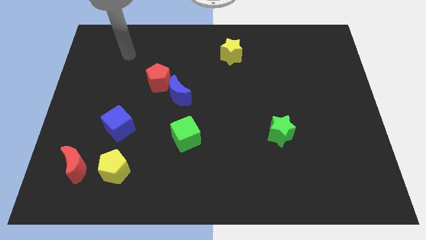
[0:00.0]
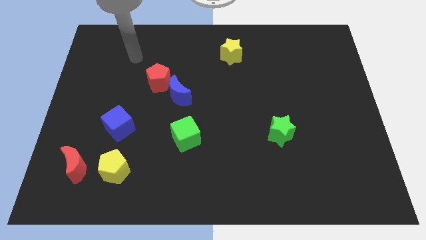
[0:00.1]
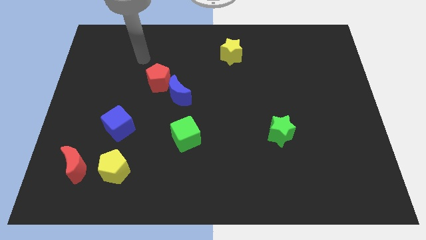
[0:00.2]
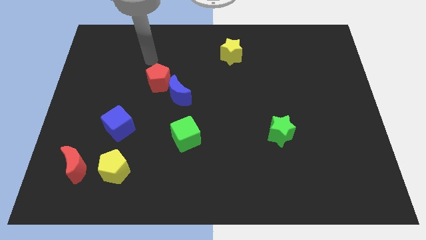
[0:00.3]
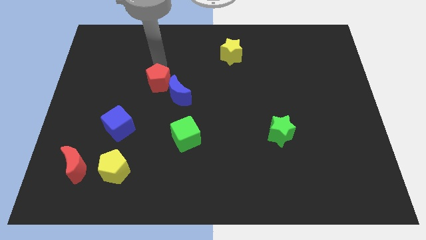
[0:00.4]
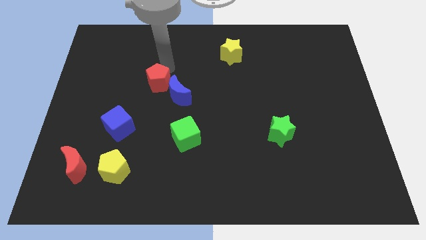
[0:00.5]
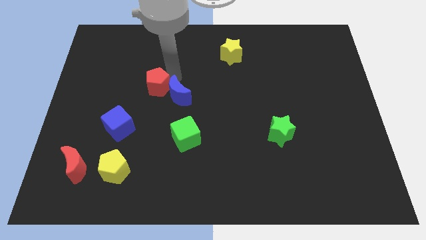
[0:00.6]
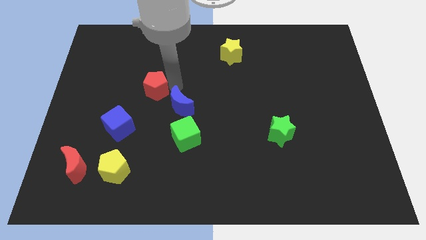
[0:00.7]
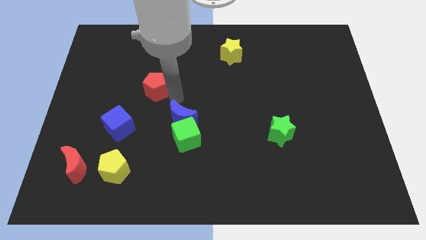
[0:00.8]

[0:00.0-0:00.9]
pull the red pentagon apart from the blue moon

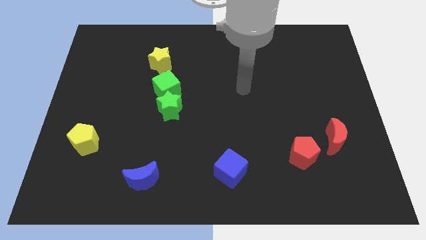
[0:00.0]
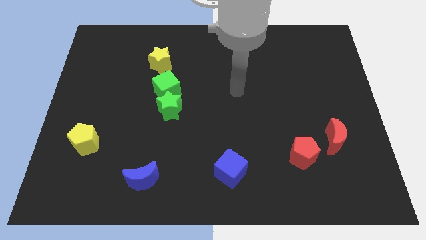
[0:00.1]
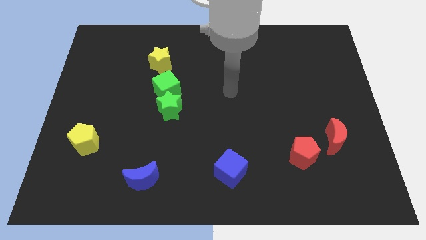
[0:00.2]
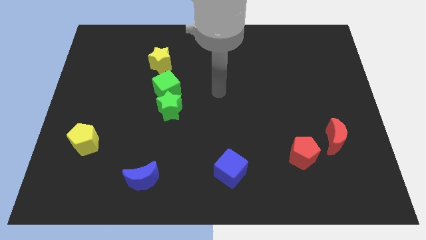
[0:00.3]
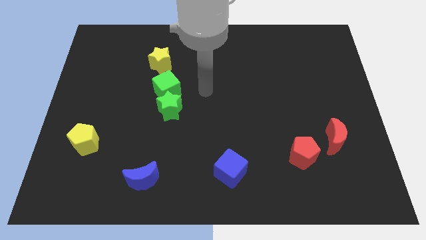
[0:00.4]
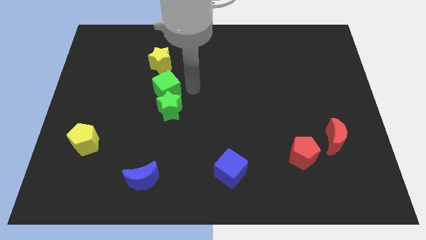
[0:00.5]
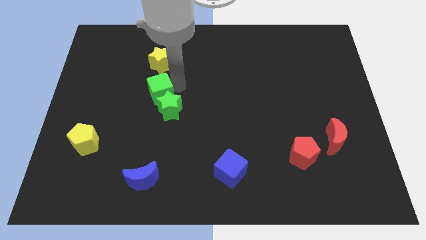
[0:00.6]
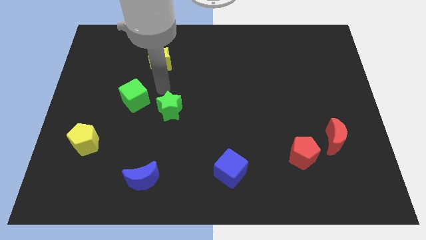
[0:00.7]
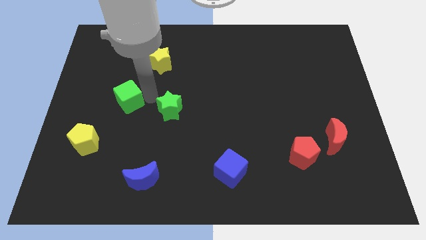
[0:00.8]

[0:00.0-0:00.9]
separate the green star from the green cube

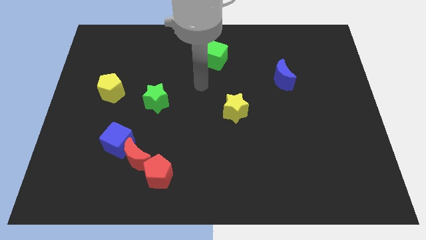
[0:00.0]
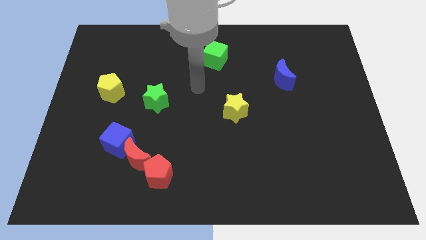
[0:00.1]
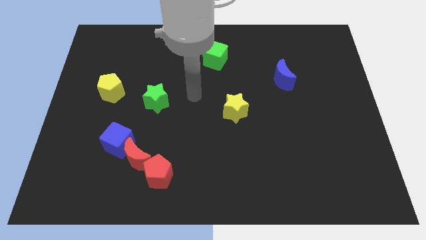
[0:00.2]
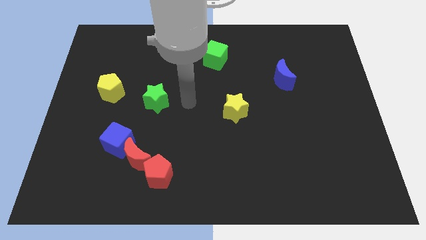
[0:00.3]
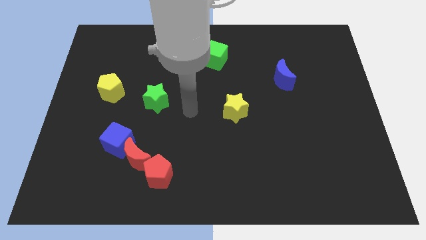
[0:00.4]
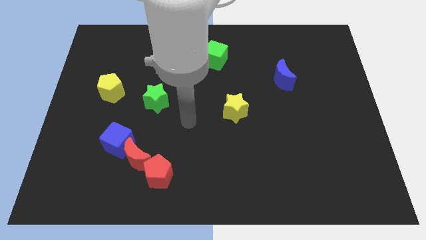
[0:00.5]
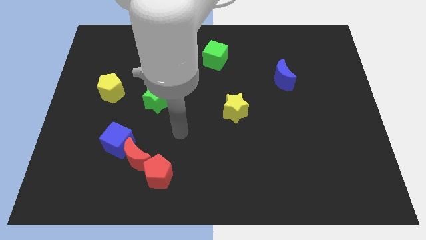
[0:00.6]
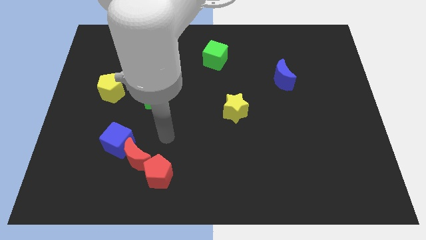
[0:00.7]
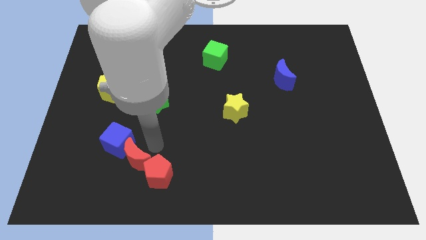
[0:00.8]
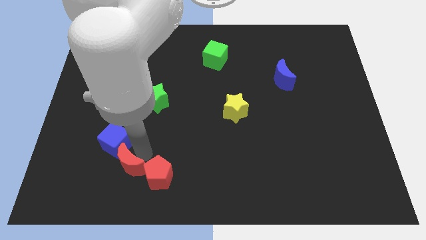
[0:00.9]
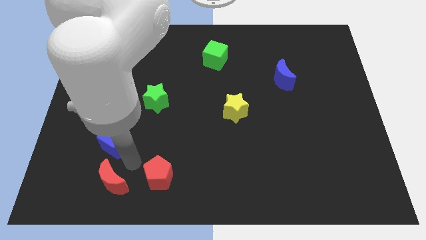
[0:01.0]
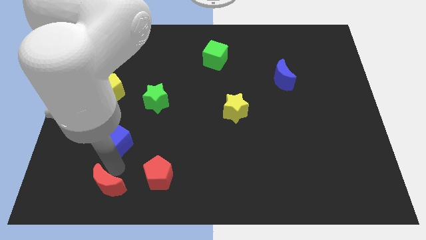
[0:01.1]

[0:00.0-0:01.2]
move the blue cube away from the red moon

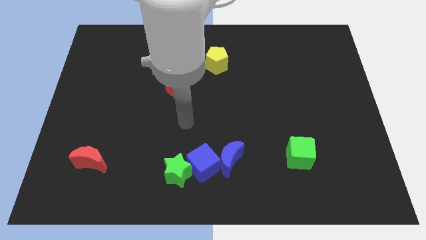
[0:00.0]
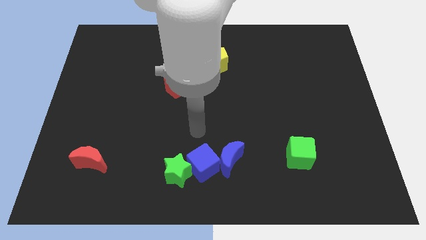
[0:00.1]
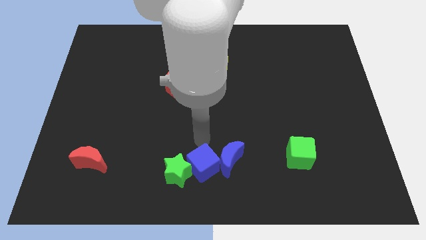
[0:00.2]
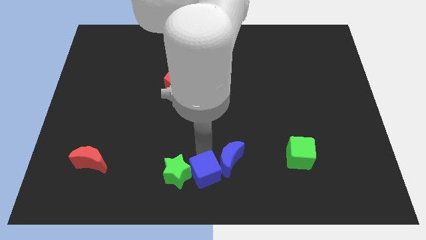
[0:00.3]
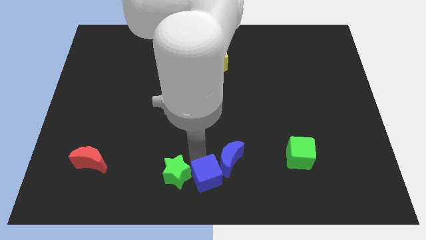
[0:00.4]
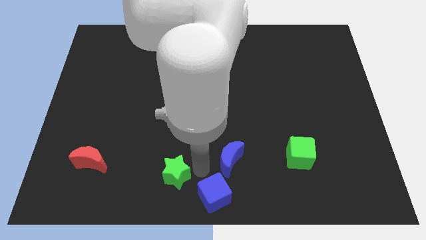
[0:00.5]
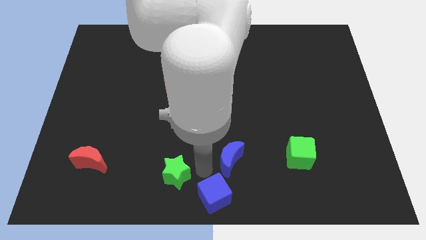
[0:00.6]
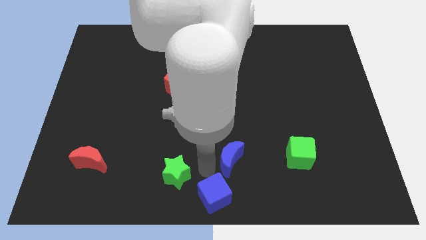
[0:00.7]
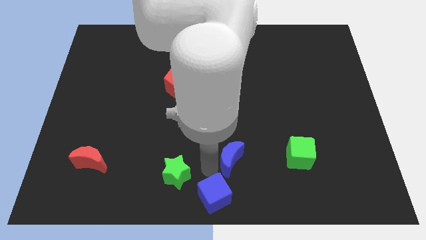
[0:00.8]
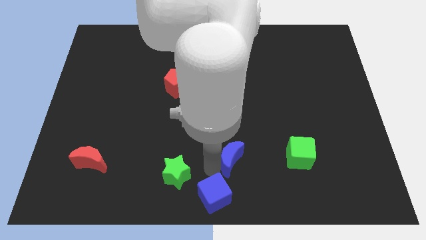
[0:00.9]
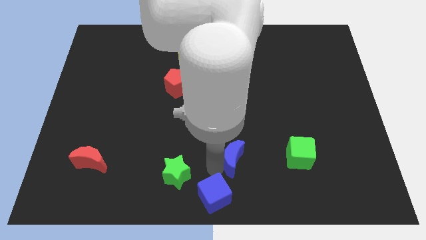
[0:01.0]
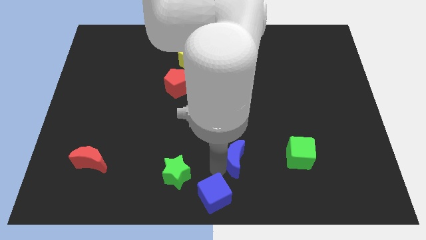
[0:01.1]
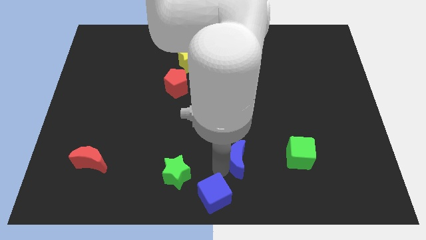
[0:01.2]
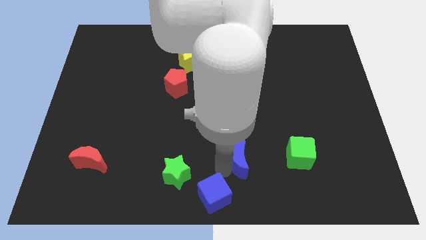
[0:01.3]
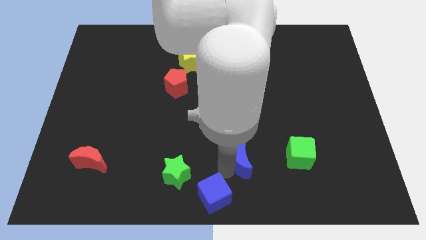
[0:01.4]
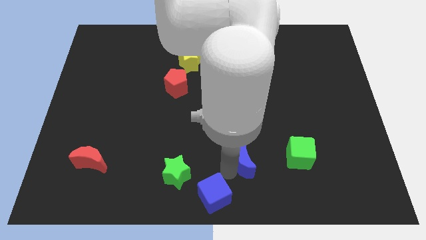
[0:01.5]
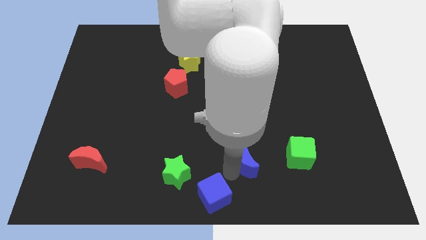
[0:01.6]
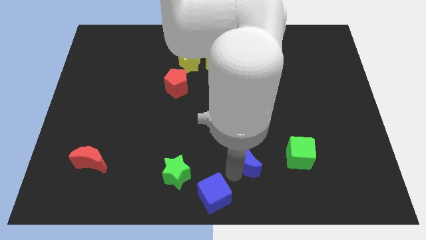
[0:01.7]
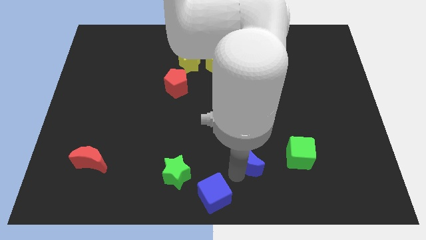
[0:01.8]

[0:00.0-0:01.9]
pull the blue moon apart from the blue cube

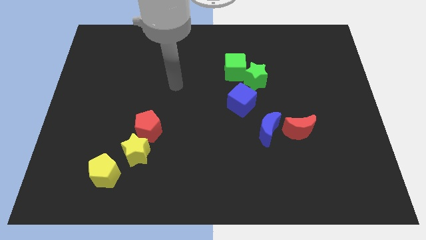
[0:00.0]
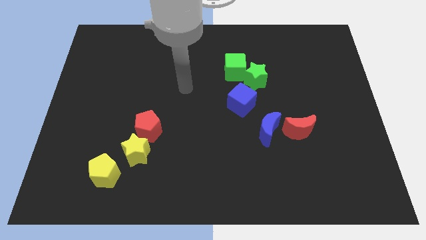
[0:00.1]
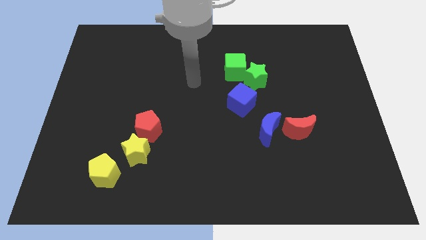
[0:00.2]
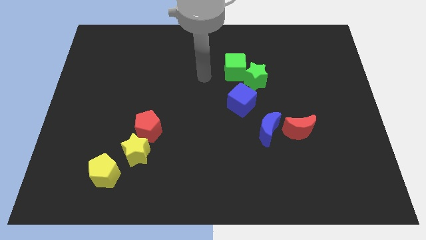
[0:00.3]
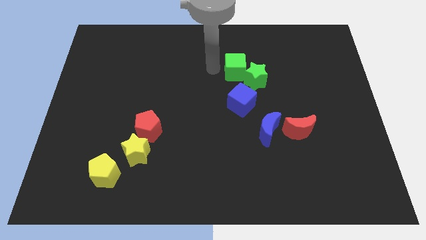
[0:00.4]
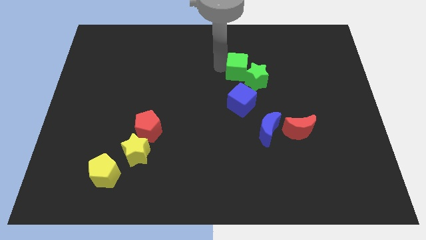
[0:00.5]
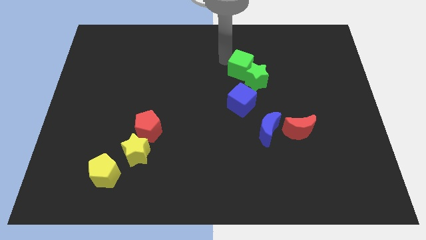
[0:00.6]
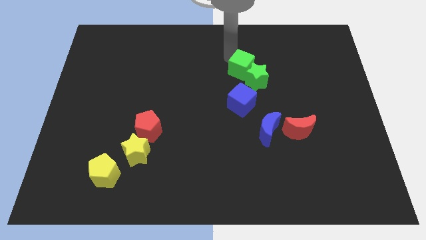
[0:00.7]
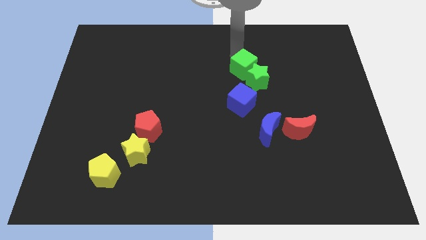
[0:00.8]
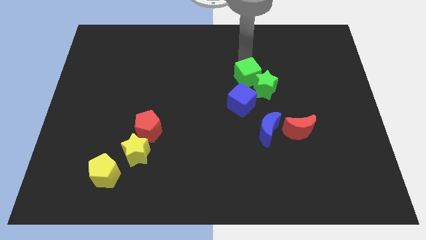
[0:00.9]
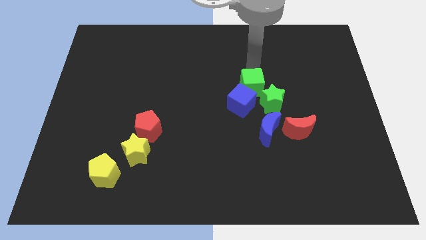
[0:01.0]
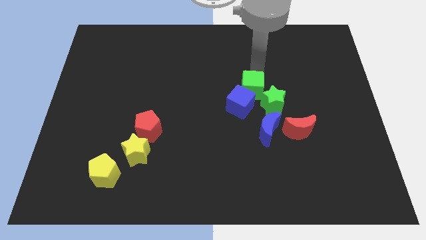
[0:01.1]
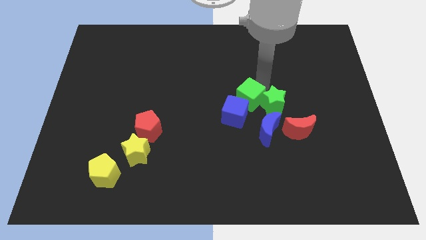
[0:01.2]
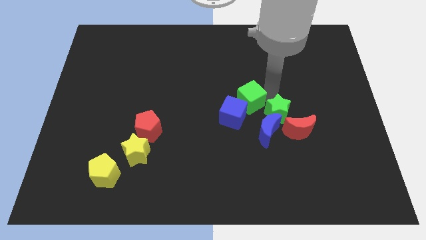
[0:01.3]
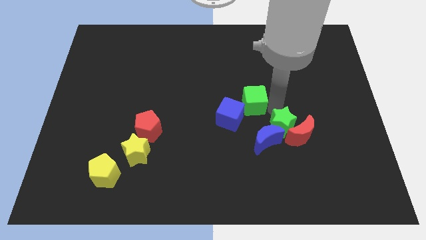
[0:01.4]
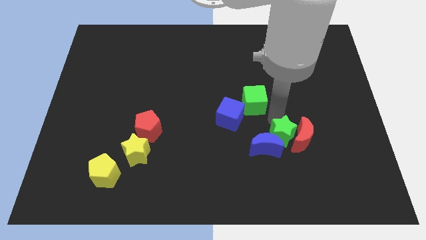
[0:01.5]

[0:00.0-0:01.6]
pull the green cube apart from the green star

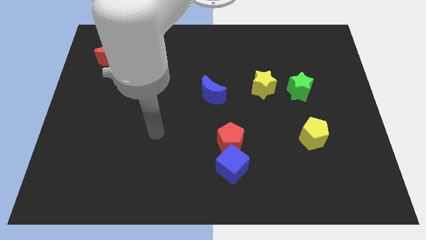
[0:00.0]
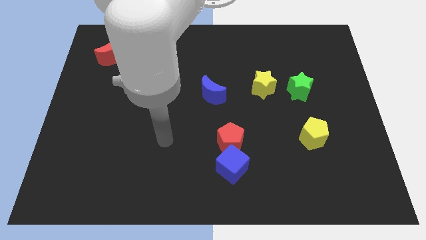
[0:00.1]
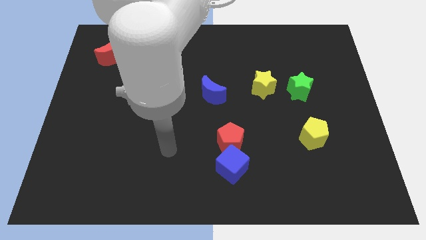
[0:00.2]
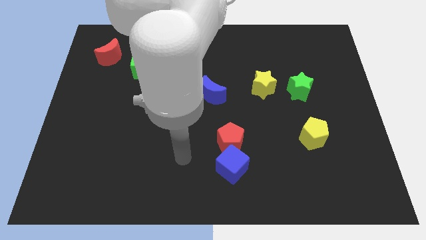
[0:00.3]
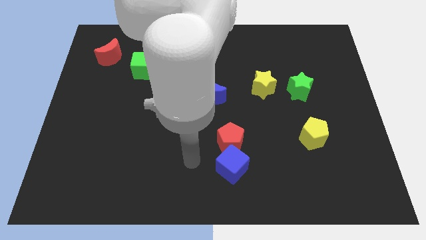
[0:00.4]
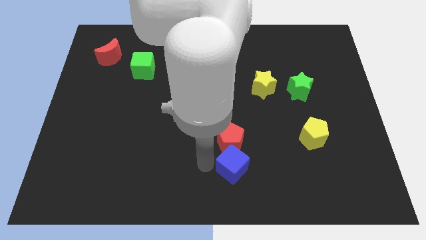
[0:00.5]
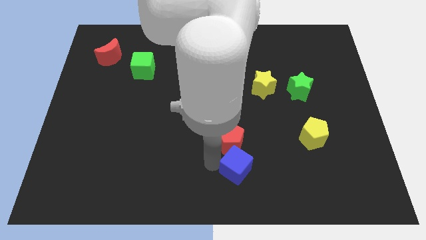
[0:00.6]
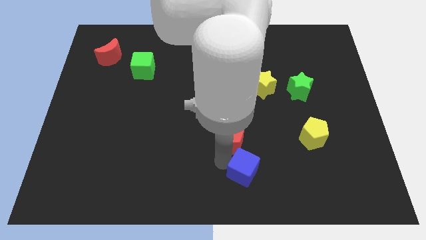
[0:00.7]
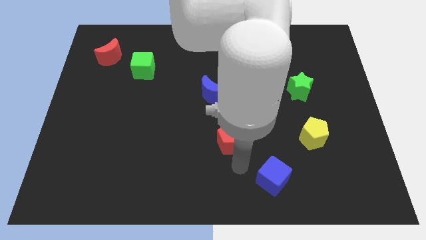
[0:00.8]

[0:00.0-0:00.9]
separate the red pentagon from the blue cube

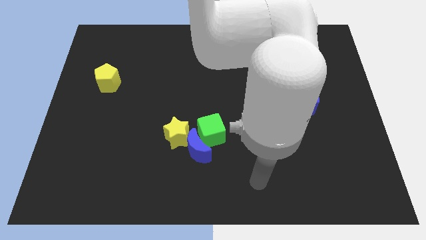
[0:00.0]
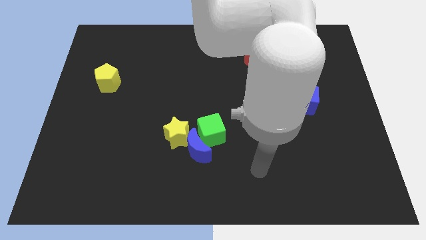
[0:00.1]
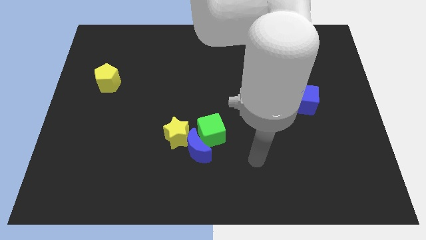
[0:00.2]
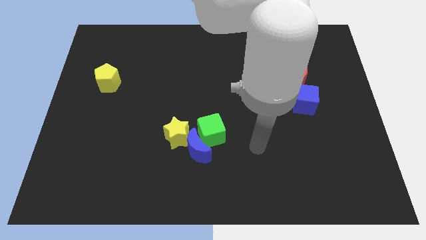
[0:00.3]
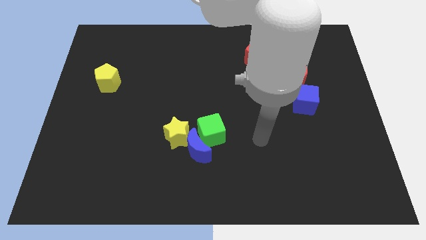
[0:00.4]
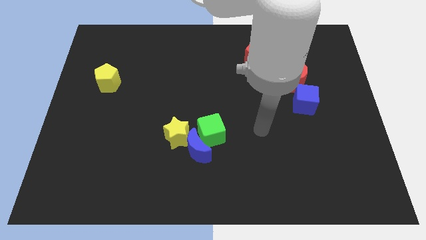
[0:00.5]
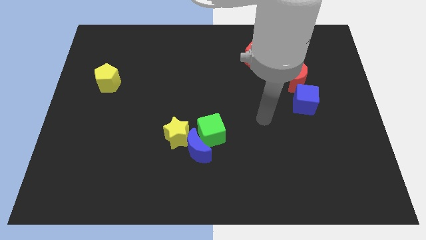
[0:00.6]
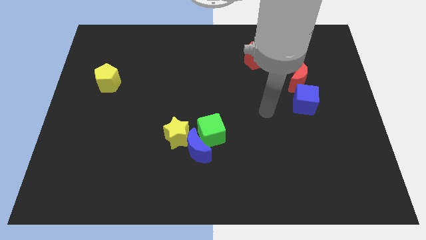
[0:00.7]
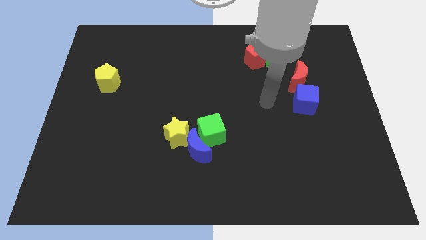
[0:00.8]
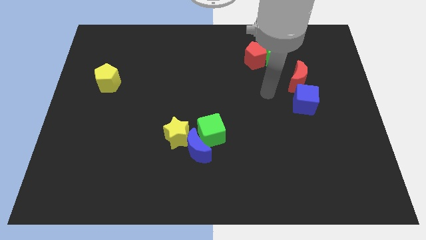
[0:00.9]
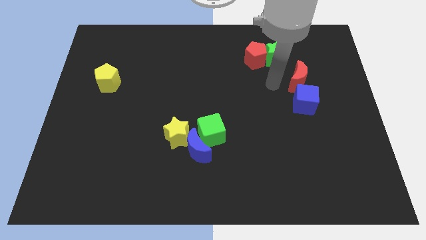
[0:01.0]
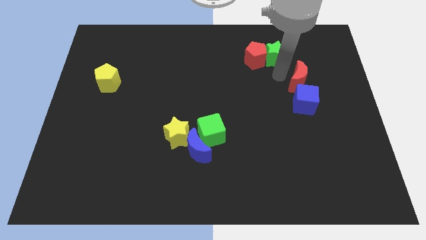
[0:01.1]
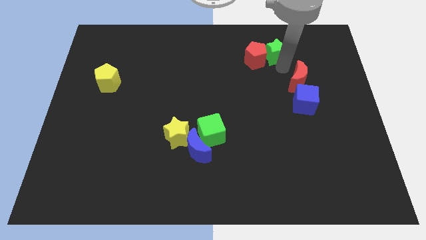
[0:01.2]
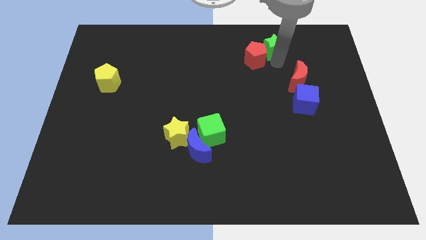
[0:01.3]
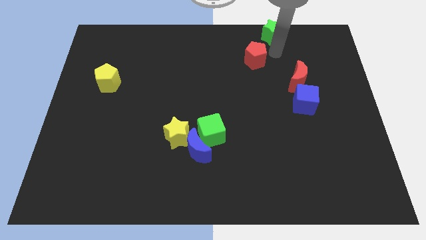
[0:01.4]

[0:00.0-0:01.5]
pull the red pentagon apart from the green star

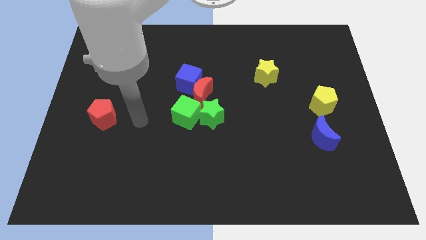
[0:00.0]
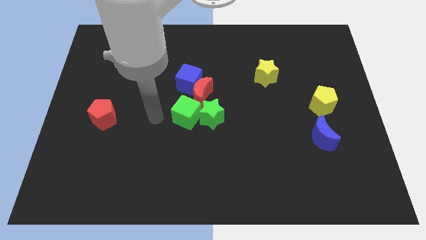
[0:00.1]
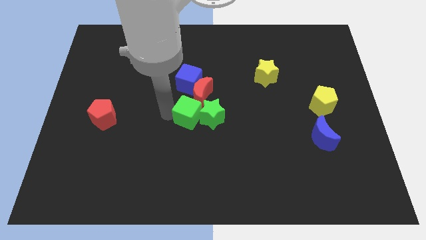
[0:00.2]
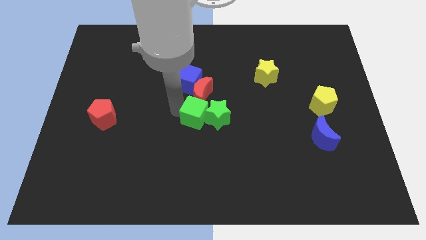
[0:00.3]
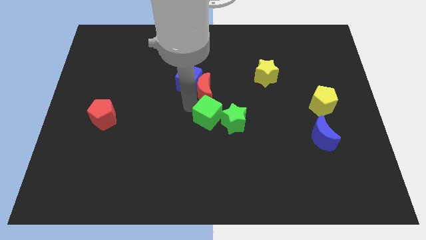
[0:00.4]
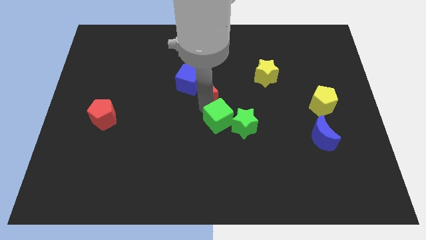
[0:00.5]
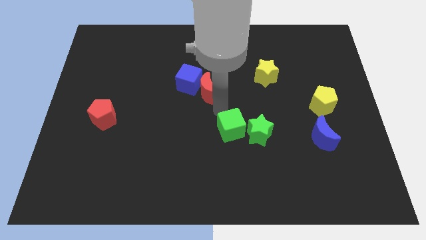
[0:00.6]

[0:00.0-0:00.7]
move the green star away from the green cube and red moon
